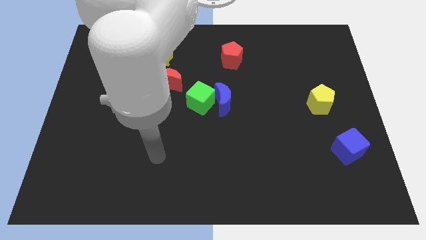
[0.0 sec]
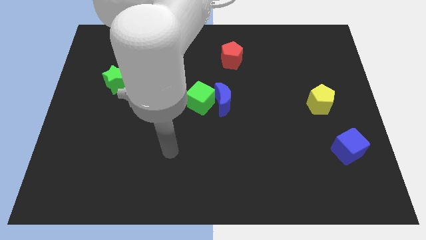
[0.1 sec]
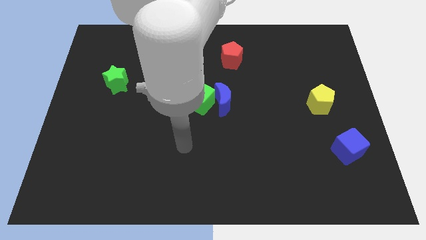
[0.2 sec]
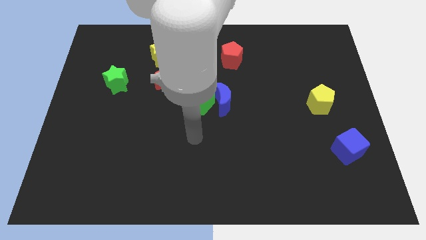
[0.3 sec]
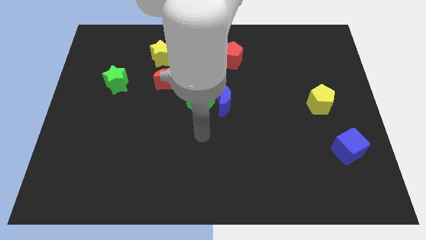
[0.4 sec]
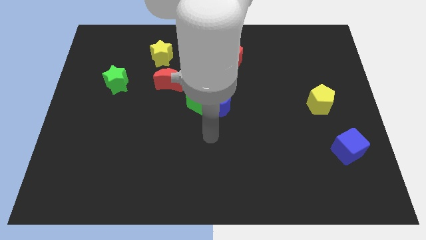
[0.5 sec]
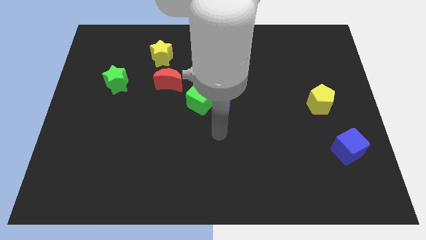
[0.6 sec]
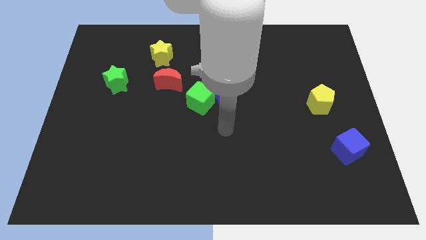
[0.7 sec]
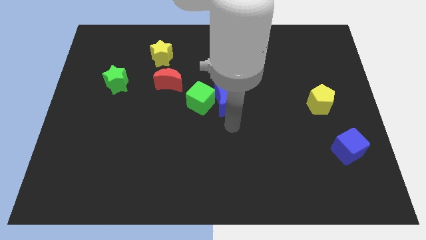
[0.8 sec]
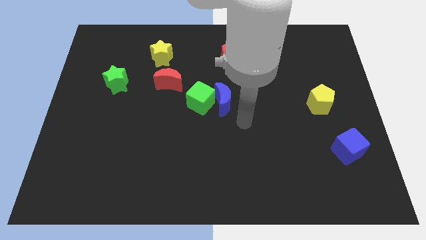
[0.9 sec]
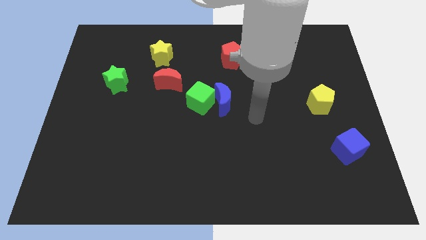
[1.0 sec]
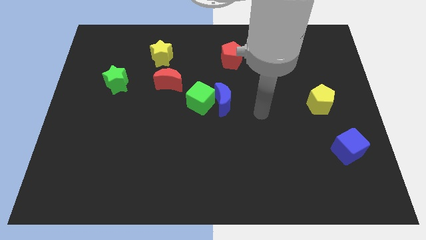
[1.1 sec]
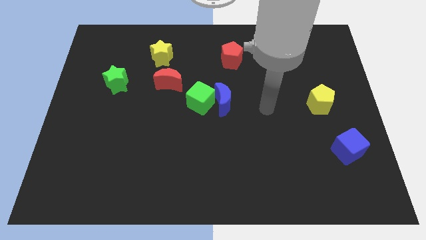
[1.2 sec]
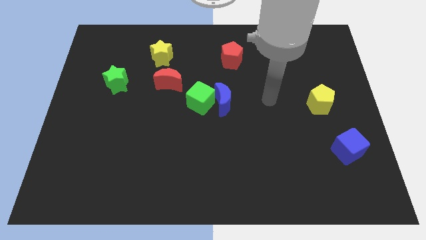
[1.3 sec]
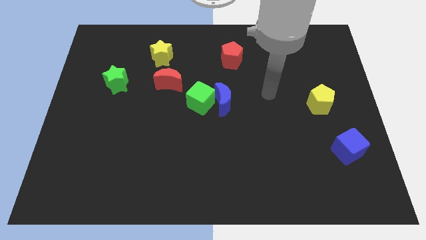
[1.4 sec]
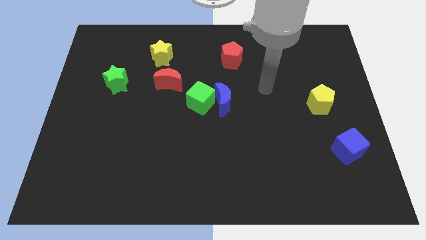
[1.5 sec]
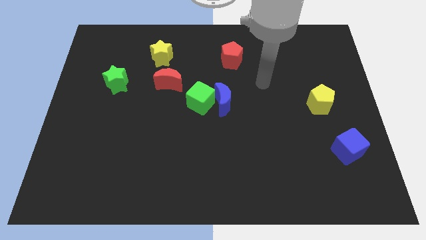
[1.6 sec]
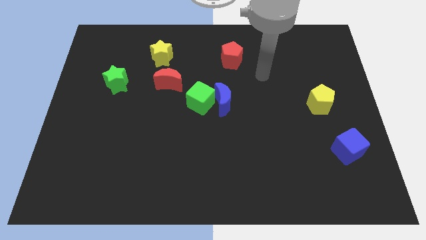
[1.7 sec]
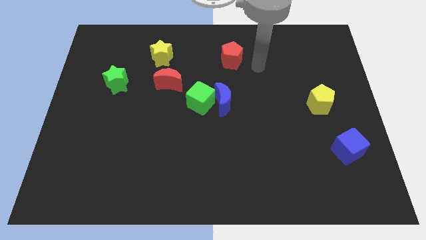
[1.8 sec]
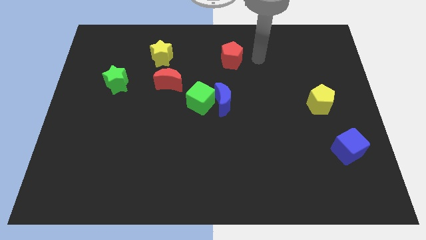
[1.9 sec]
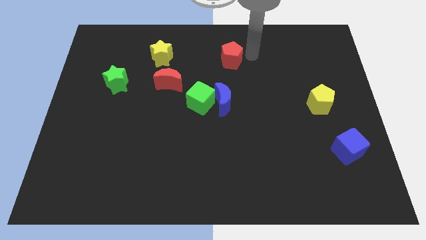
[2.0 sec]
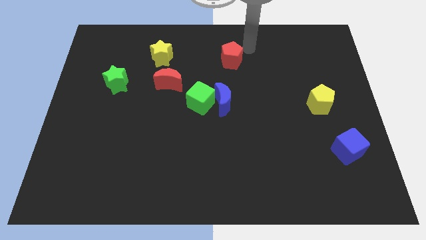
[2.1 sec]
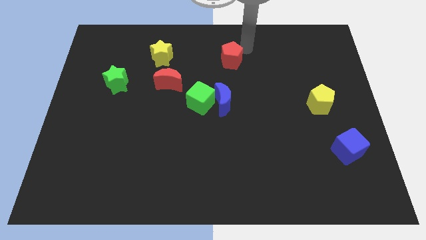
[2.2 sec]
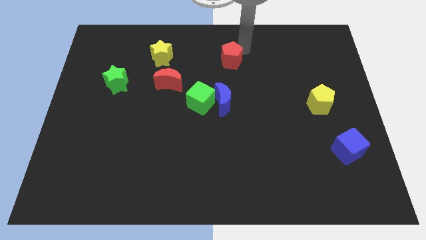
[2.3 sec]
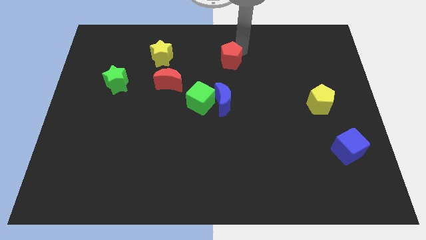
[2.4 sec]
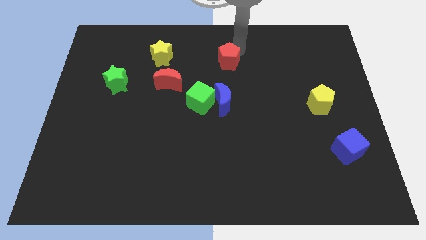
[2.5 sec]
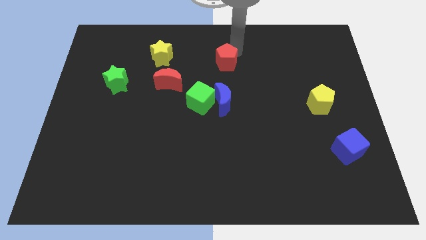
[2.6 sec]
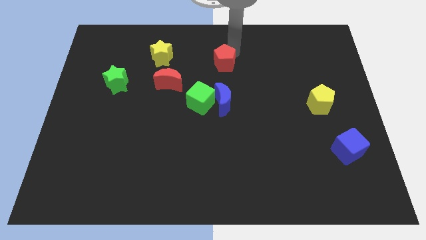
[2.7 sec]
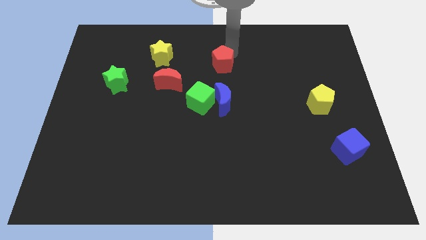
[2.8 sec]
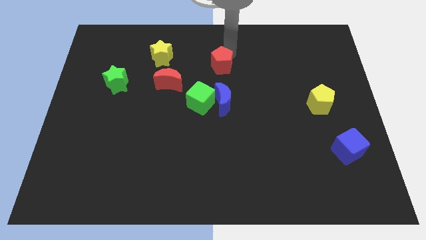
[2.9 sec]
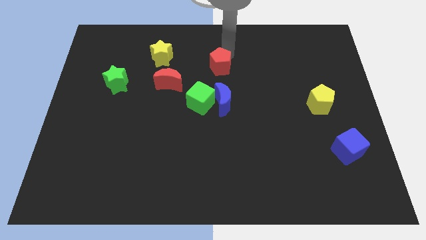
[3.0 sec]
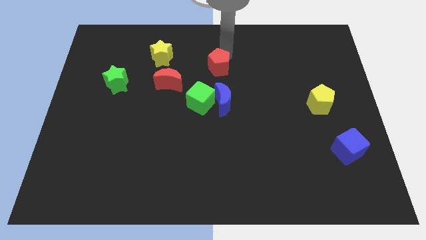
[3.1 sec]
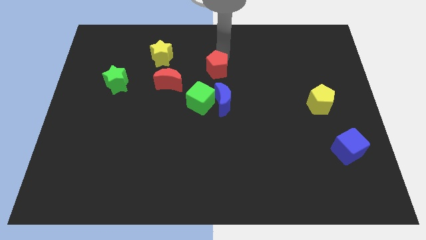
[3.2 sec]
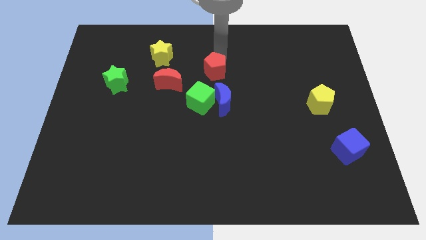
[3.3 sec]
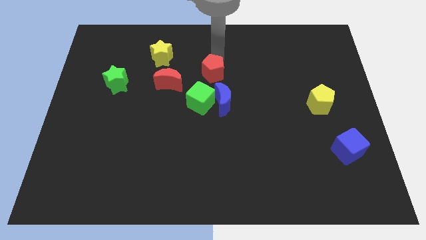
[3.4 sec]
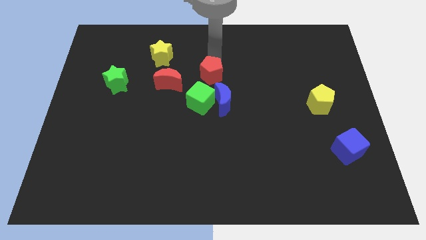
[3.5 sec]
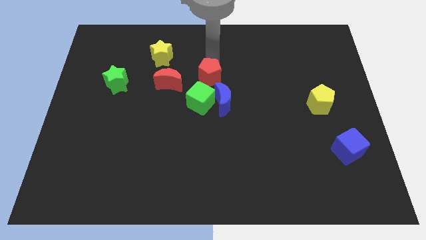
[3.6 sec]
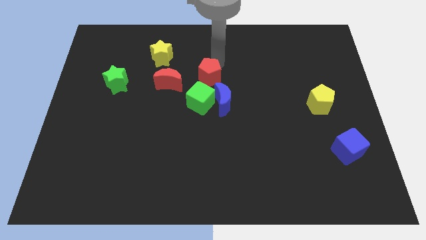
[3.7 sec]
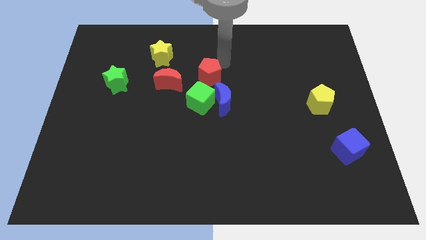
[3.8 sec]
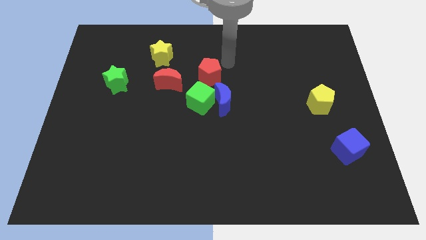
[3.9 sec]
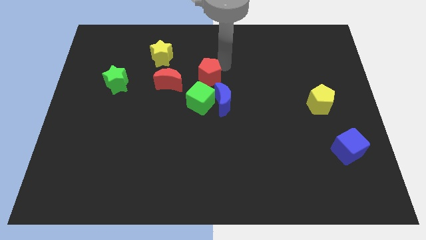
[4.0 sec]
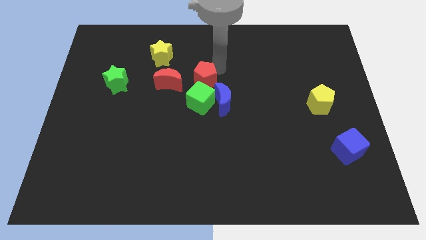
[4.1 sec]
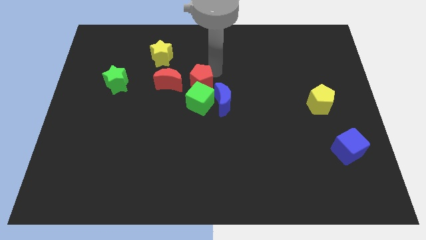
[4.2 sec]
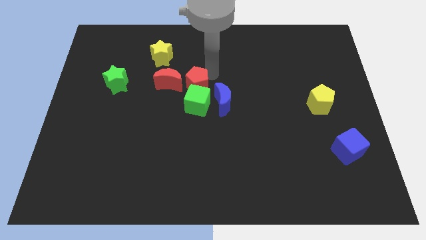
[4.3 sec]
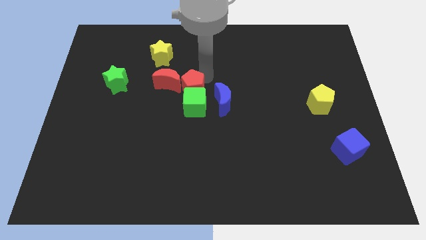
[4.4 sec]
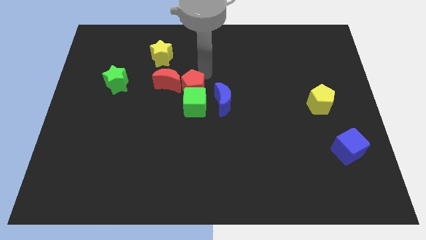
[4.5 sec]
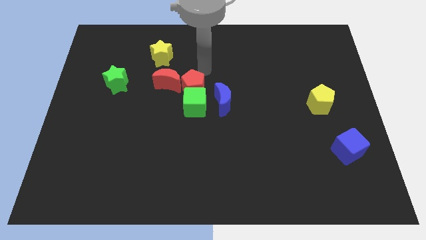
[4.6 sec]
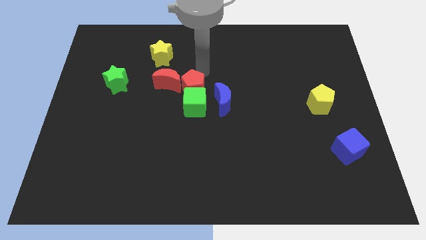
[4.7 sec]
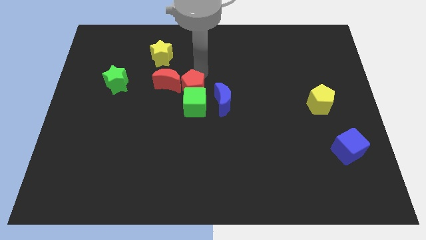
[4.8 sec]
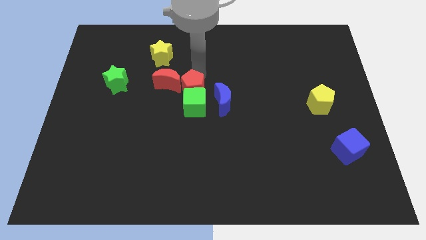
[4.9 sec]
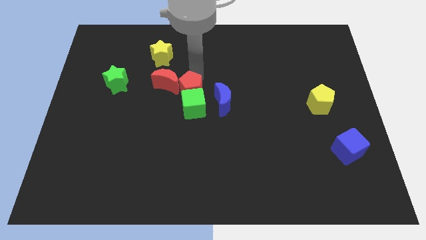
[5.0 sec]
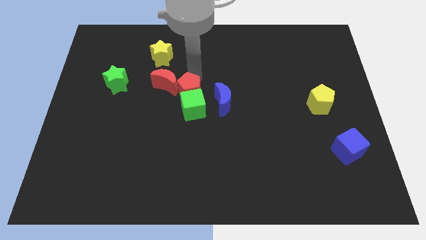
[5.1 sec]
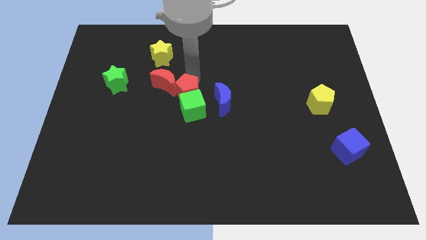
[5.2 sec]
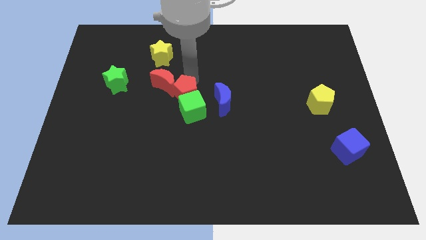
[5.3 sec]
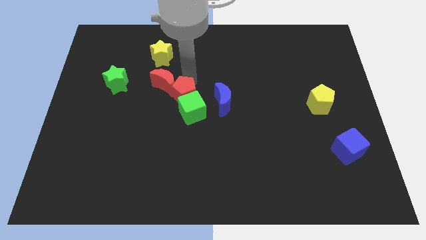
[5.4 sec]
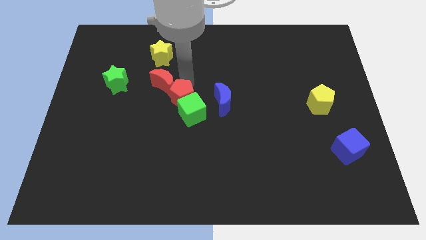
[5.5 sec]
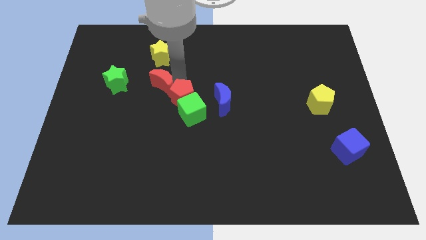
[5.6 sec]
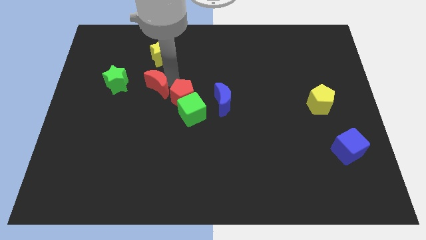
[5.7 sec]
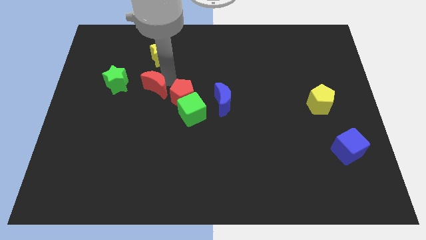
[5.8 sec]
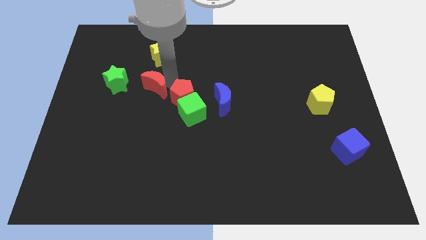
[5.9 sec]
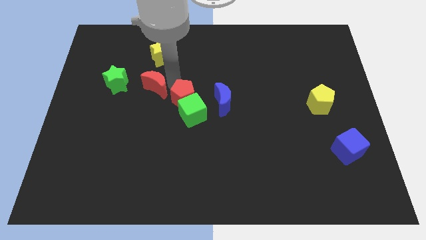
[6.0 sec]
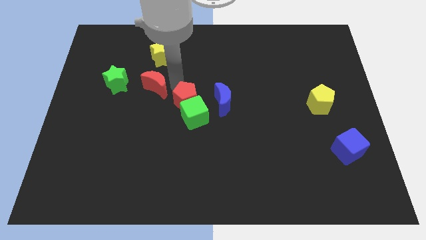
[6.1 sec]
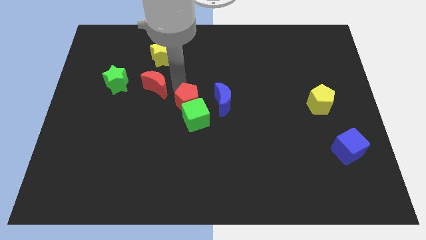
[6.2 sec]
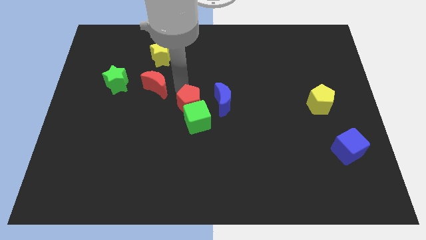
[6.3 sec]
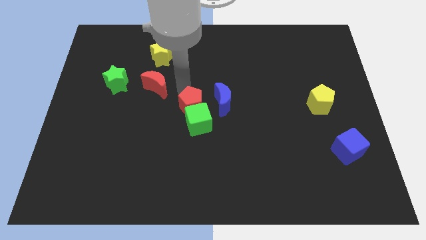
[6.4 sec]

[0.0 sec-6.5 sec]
put the red pentagon to the bottom left of the blue moon

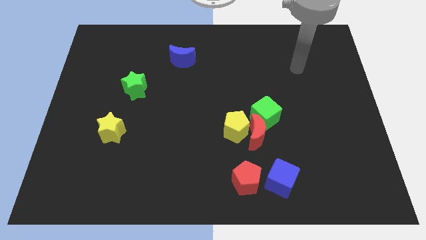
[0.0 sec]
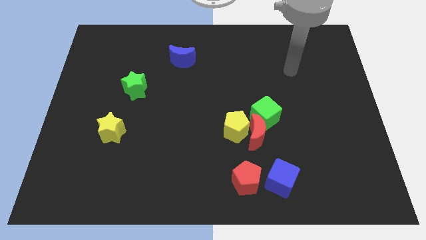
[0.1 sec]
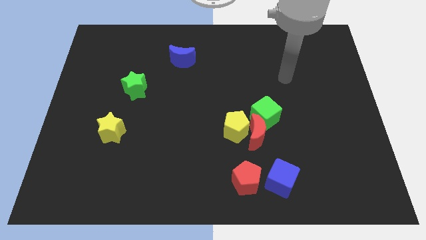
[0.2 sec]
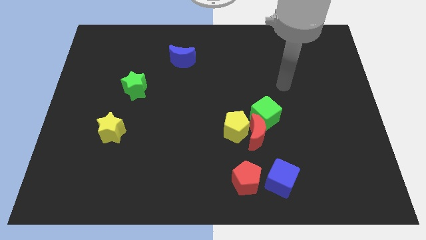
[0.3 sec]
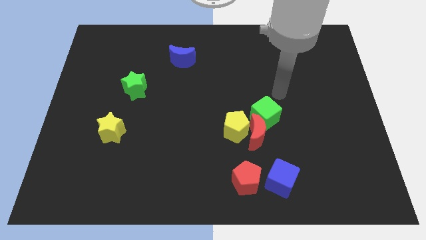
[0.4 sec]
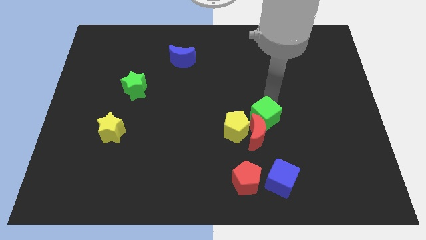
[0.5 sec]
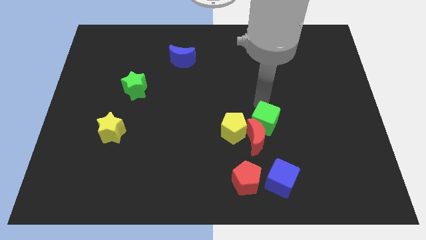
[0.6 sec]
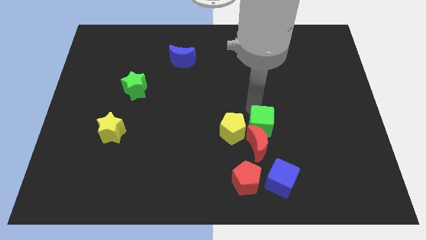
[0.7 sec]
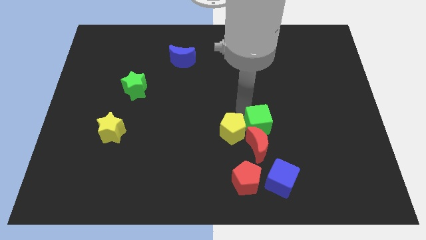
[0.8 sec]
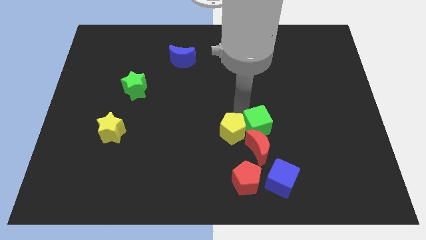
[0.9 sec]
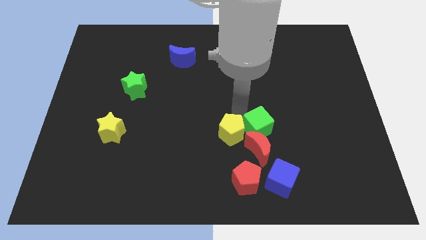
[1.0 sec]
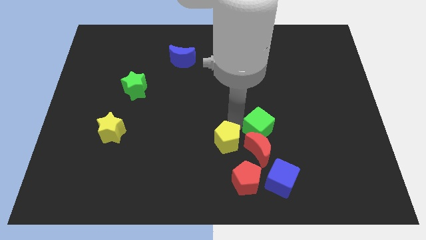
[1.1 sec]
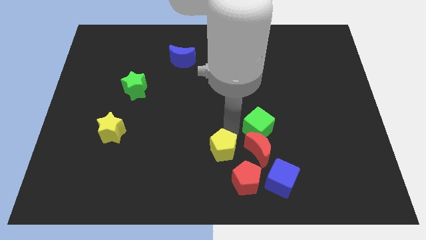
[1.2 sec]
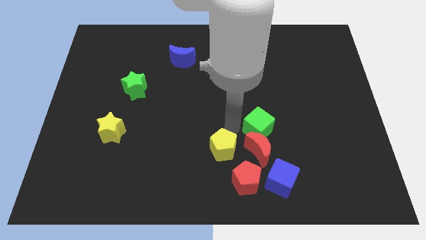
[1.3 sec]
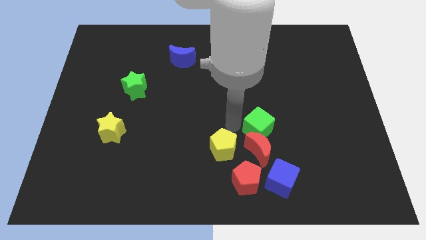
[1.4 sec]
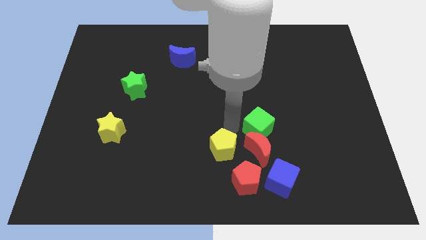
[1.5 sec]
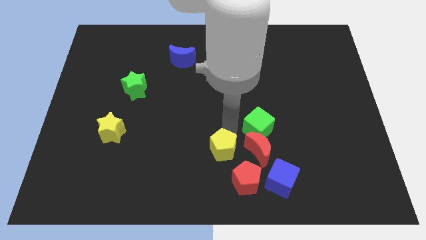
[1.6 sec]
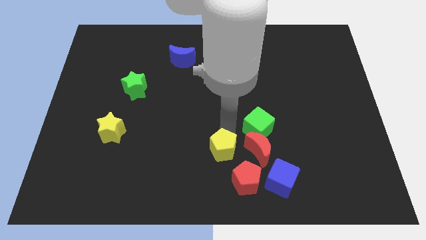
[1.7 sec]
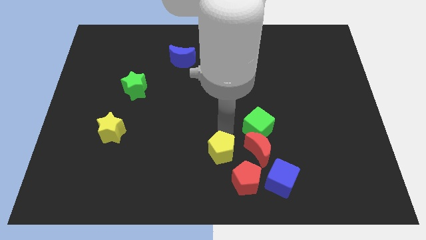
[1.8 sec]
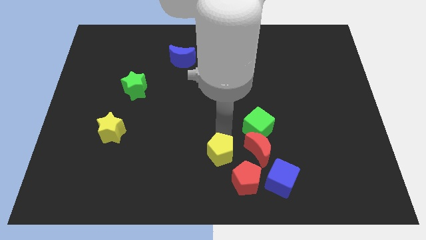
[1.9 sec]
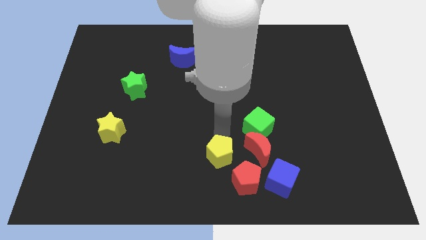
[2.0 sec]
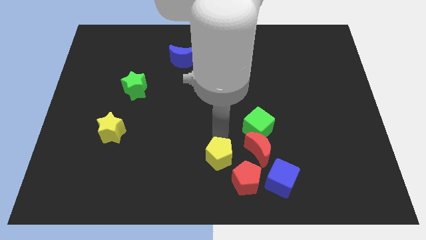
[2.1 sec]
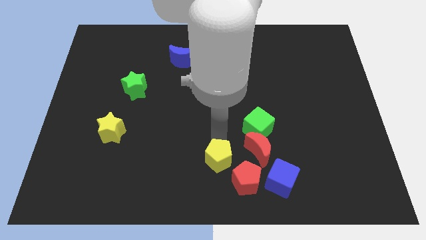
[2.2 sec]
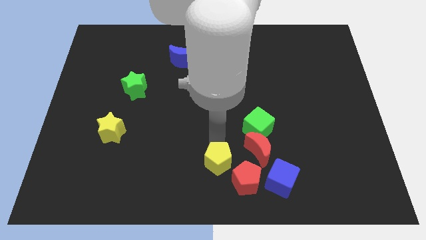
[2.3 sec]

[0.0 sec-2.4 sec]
push the yellow pentagon to the left side of the red pentagon
